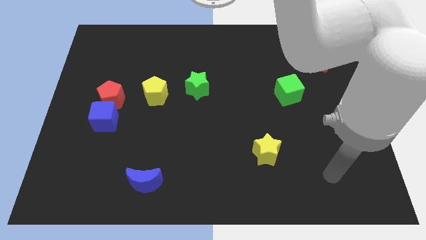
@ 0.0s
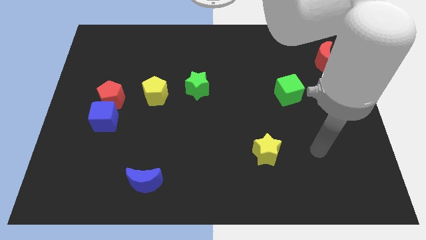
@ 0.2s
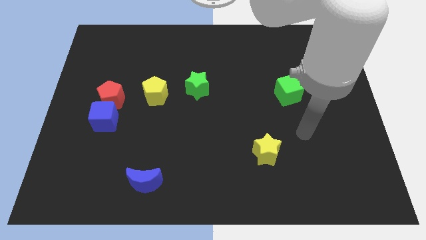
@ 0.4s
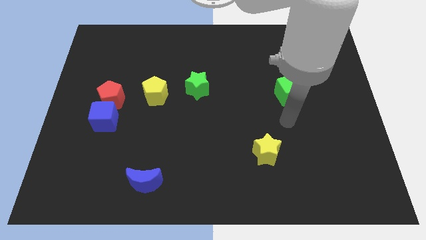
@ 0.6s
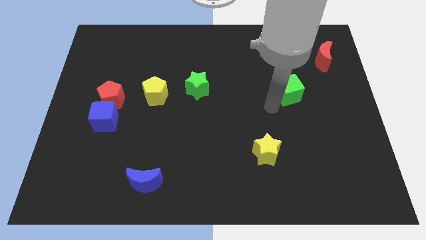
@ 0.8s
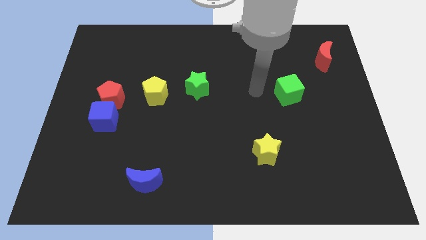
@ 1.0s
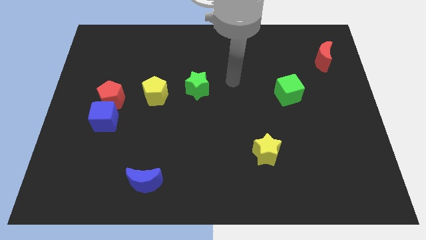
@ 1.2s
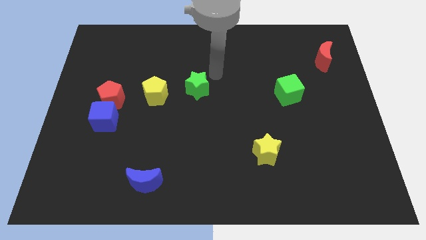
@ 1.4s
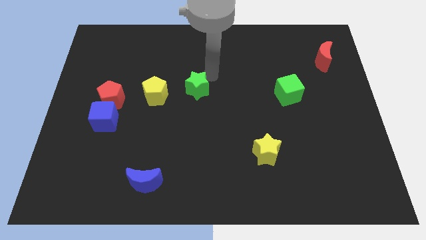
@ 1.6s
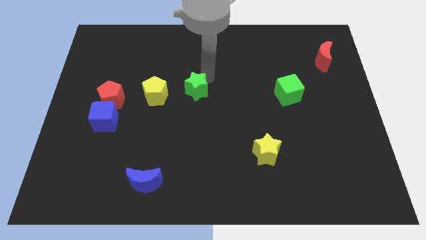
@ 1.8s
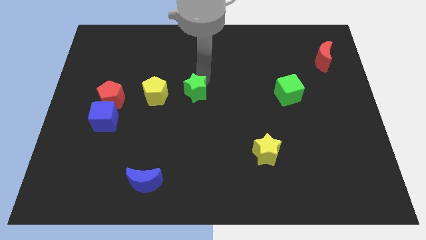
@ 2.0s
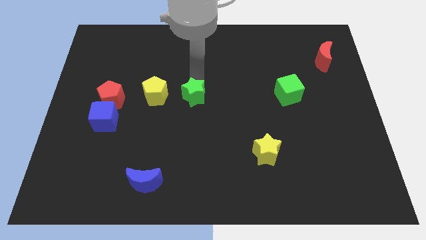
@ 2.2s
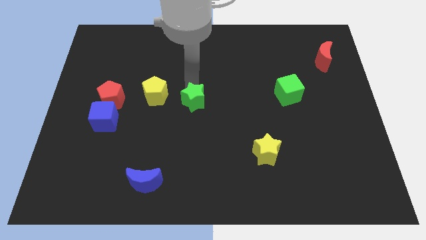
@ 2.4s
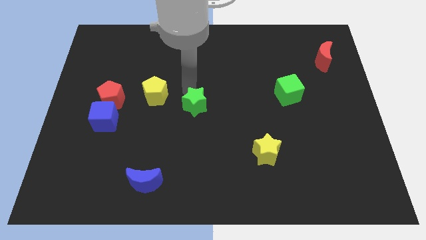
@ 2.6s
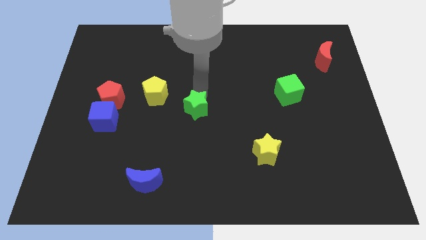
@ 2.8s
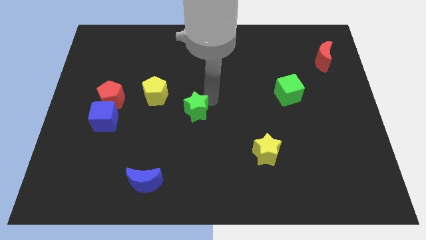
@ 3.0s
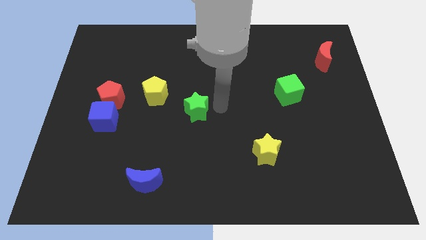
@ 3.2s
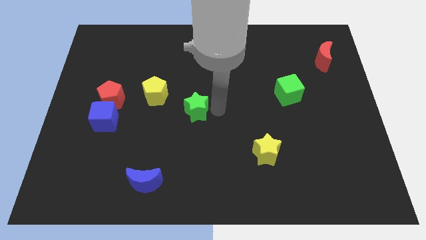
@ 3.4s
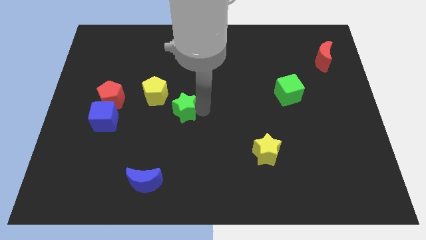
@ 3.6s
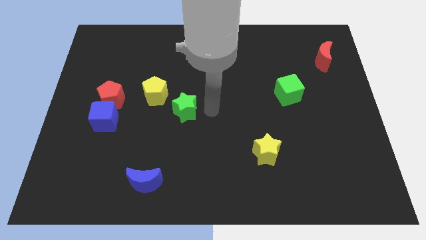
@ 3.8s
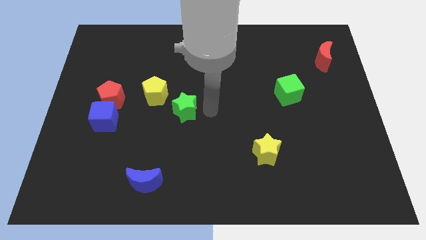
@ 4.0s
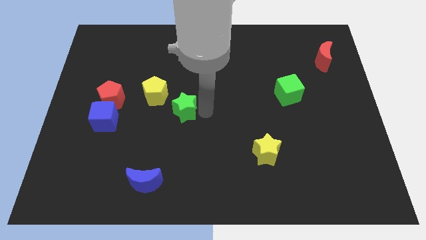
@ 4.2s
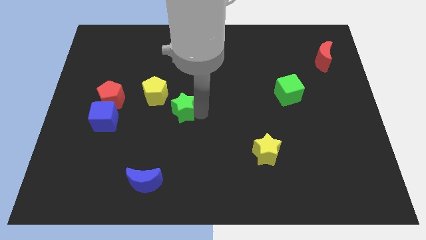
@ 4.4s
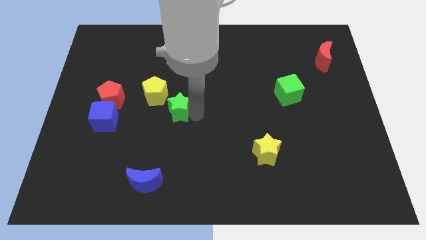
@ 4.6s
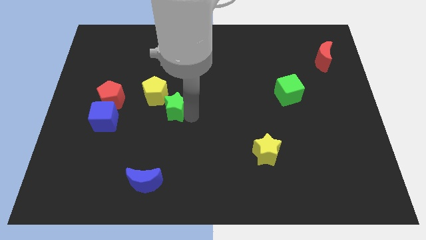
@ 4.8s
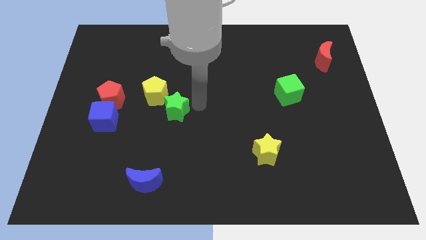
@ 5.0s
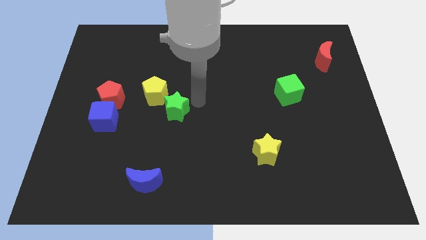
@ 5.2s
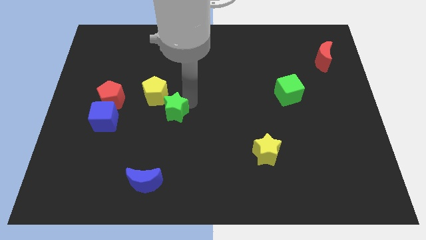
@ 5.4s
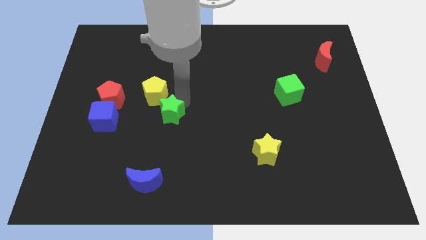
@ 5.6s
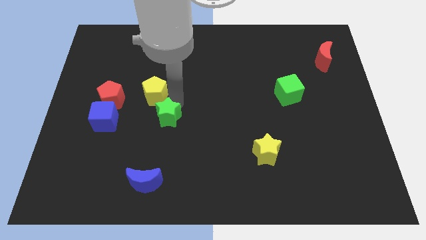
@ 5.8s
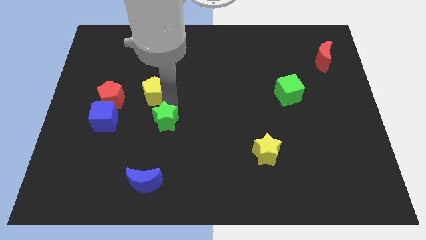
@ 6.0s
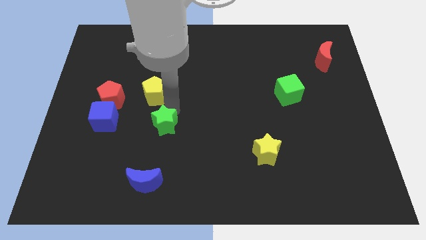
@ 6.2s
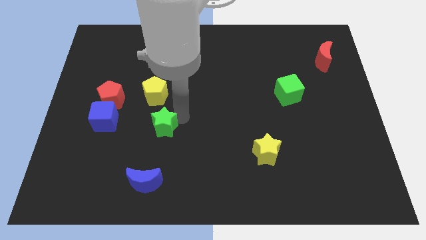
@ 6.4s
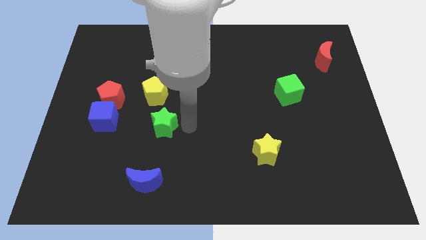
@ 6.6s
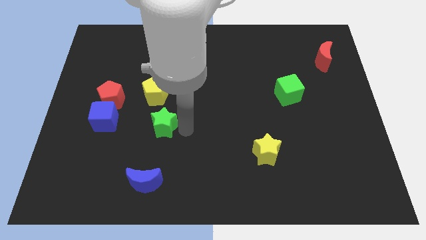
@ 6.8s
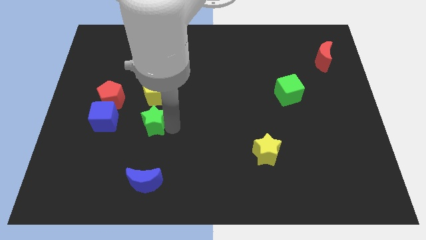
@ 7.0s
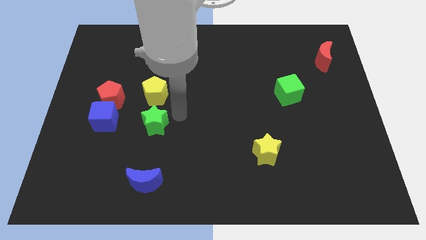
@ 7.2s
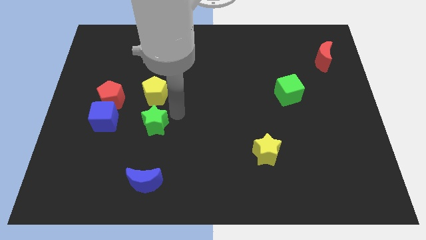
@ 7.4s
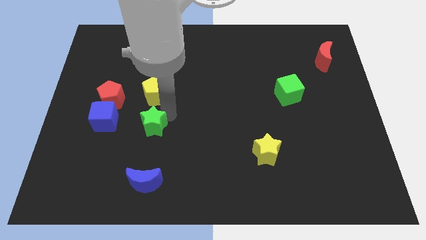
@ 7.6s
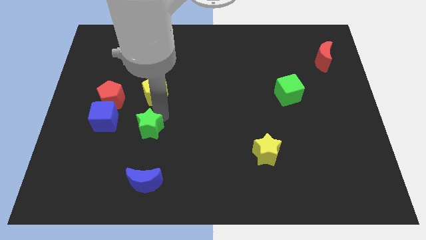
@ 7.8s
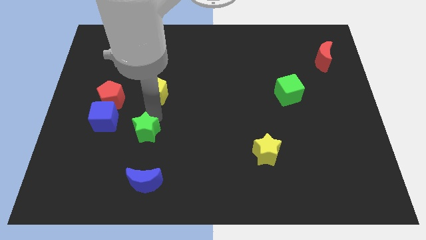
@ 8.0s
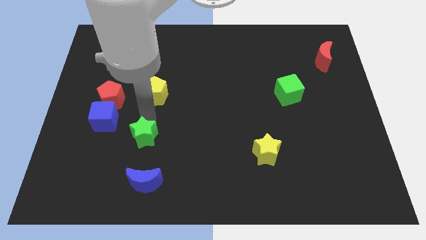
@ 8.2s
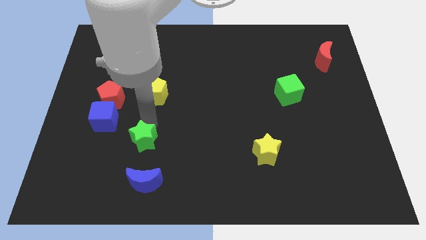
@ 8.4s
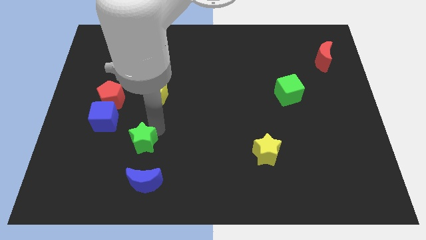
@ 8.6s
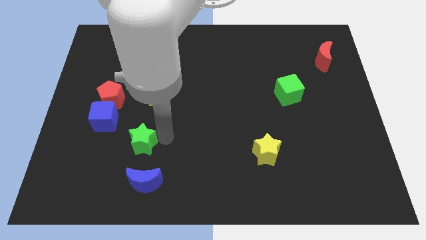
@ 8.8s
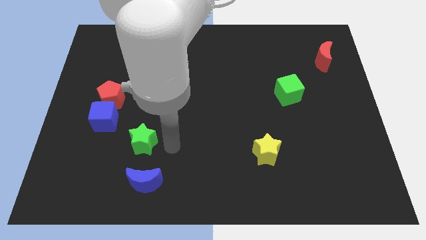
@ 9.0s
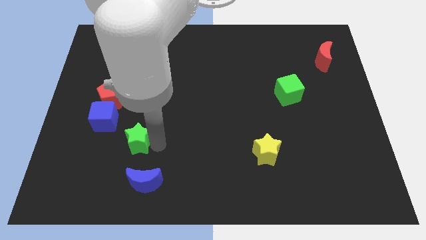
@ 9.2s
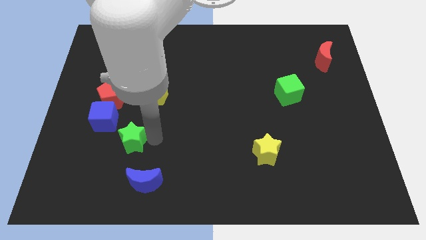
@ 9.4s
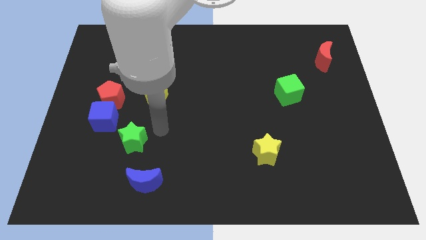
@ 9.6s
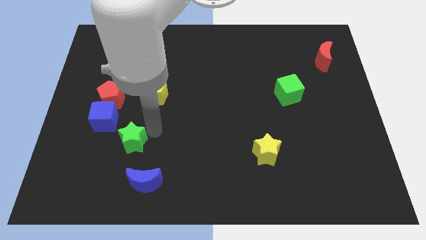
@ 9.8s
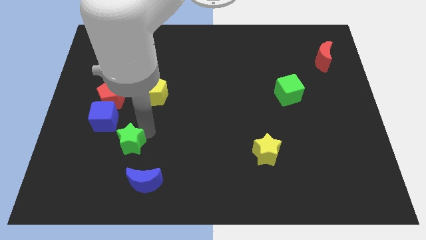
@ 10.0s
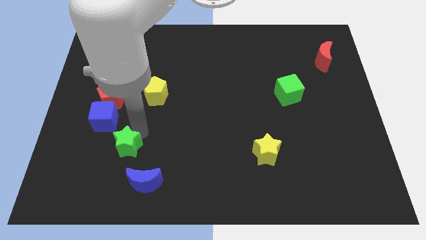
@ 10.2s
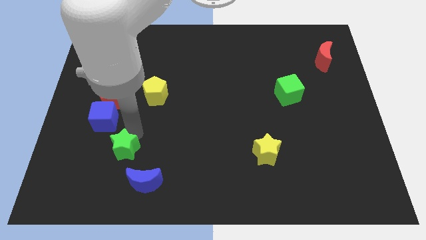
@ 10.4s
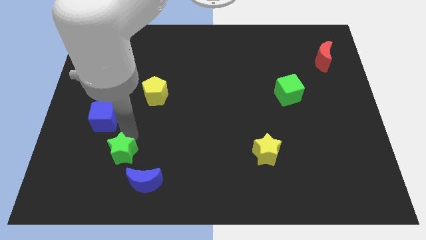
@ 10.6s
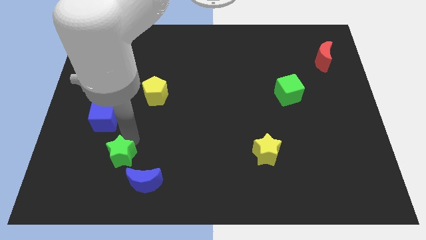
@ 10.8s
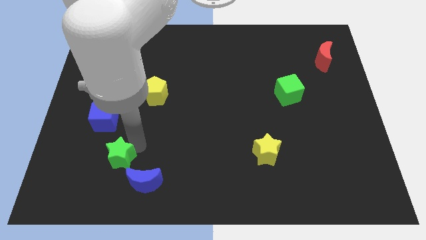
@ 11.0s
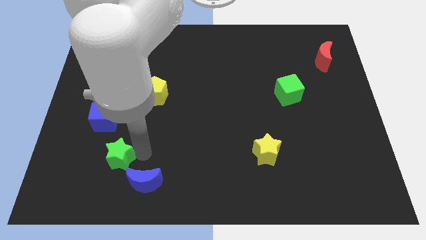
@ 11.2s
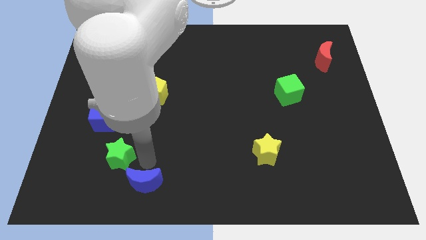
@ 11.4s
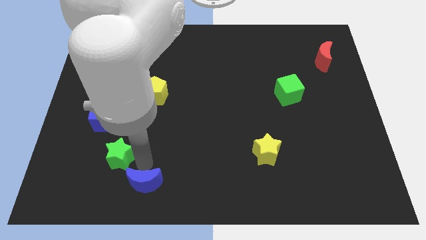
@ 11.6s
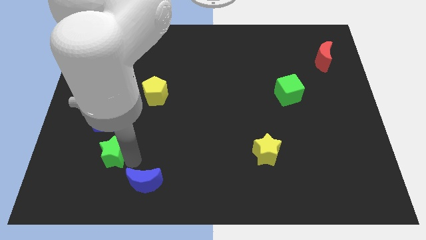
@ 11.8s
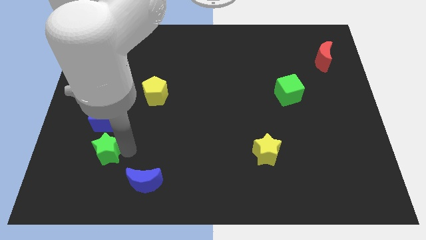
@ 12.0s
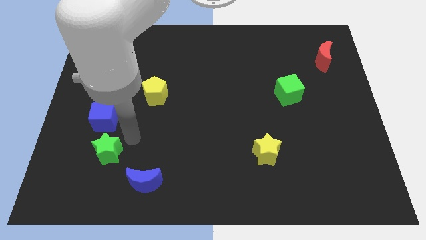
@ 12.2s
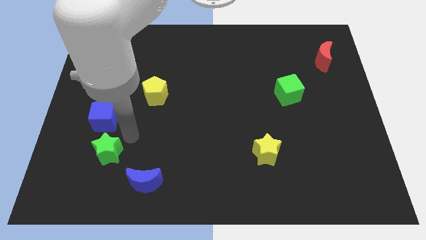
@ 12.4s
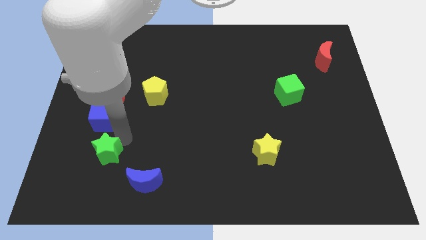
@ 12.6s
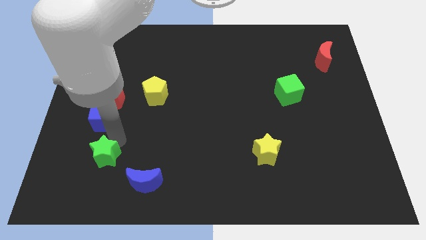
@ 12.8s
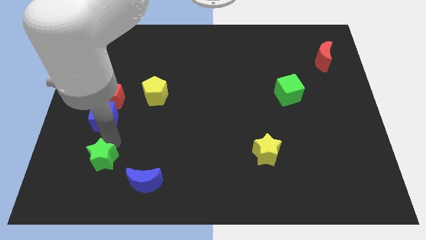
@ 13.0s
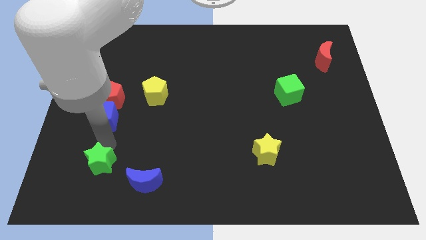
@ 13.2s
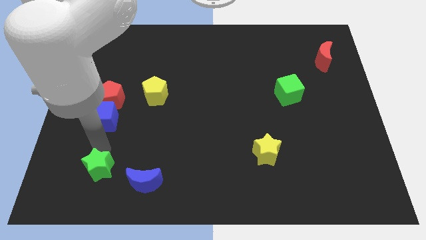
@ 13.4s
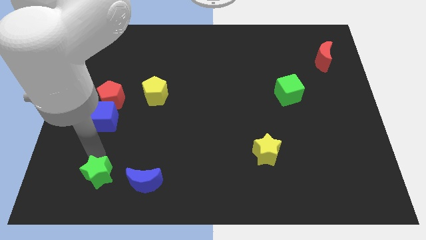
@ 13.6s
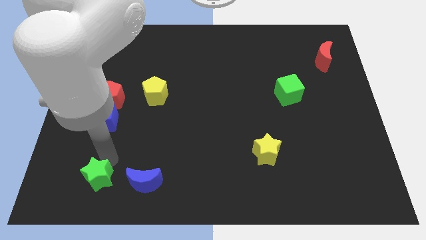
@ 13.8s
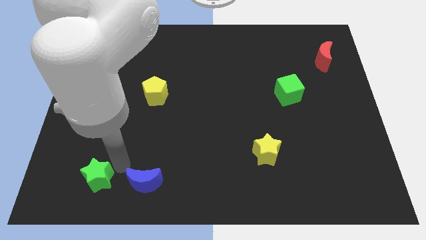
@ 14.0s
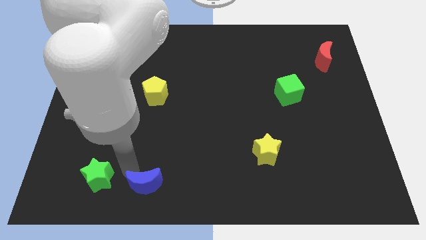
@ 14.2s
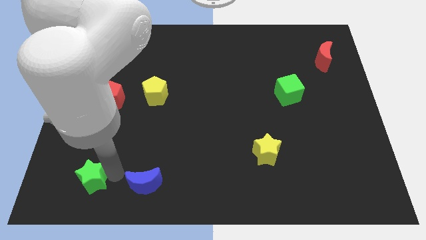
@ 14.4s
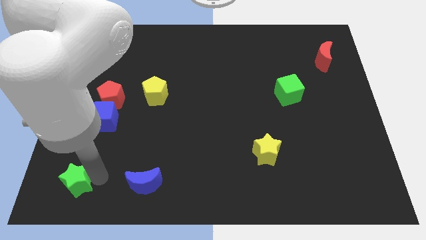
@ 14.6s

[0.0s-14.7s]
move the green star to the bottom left of the board
